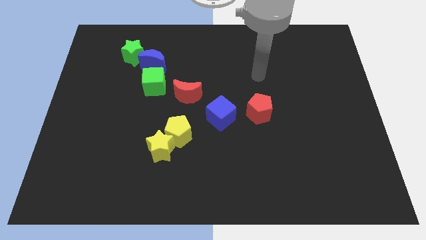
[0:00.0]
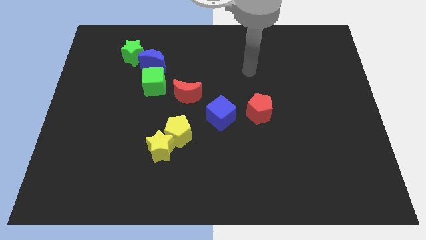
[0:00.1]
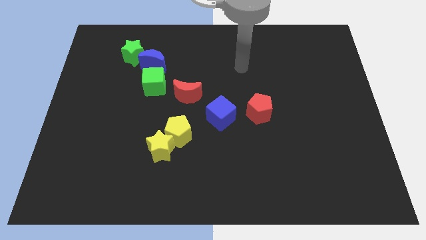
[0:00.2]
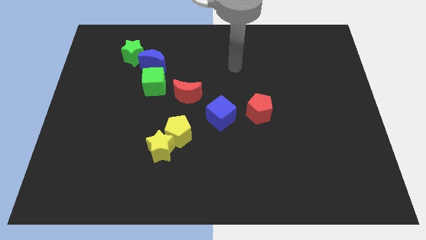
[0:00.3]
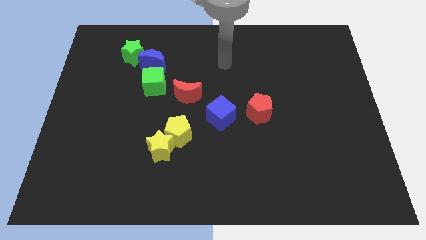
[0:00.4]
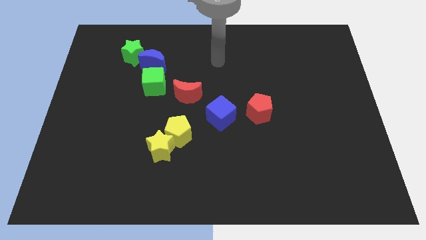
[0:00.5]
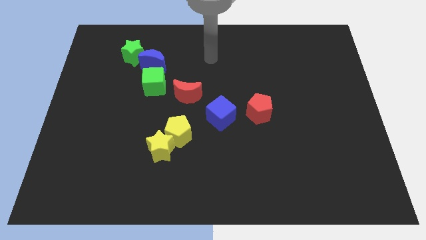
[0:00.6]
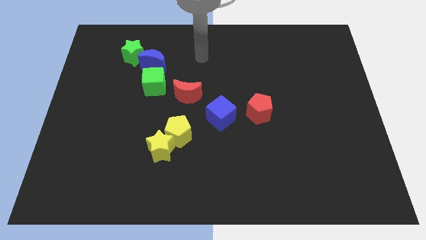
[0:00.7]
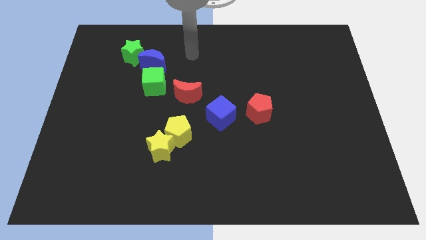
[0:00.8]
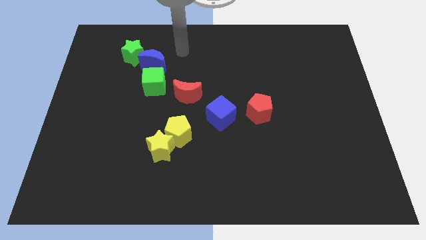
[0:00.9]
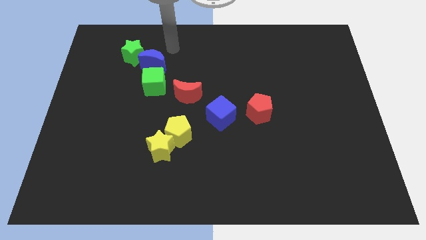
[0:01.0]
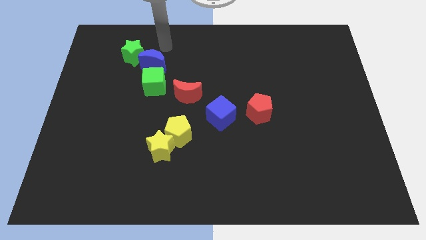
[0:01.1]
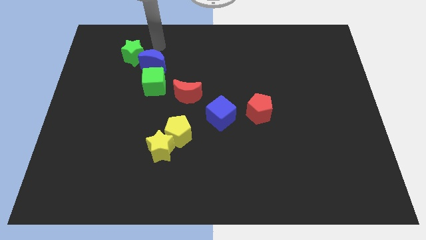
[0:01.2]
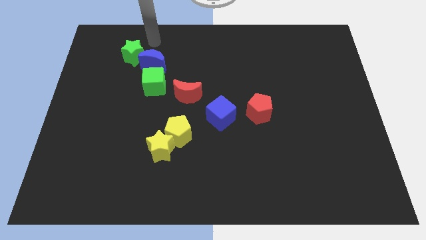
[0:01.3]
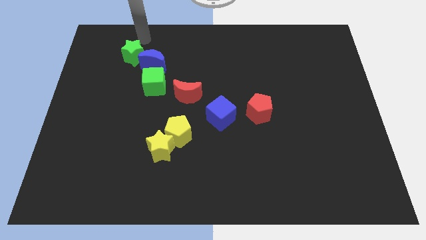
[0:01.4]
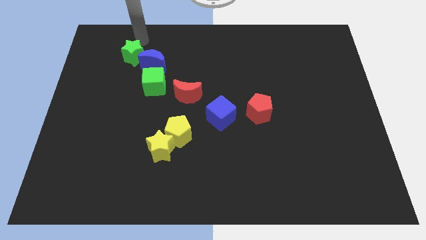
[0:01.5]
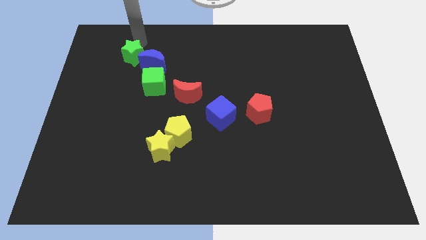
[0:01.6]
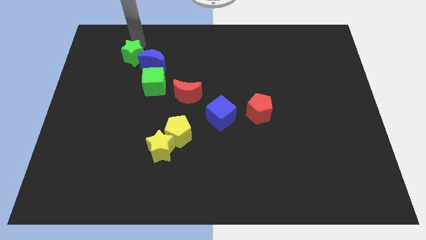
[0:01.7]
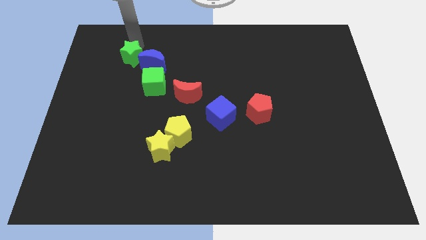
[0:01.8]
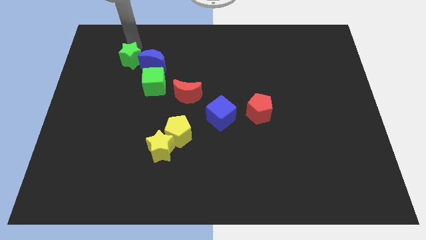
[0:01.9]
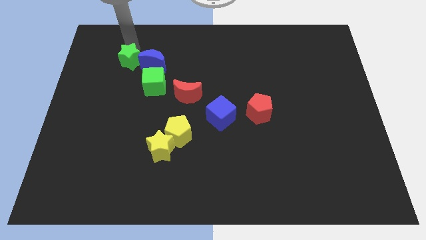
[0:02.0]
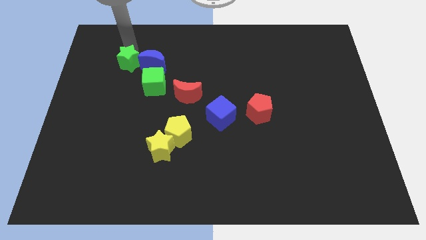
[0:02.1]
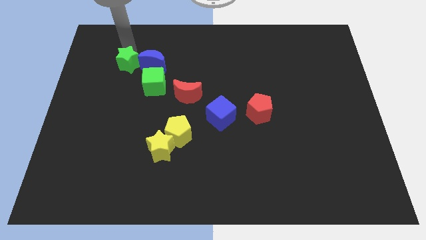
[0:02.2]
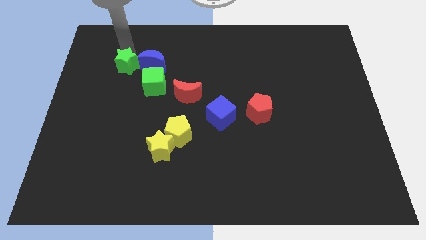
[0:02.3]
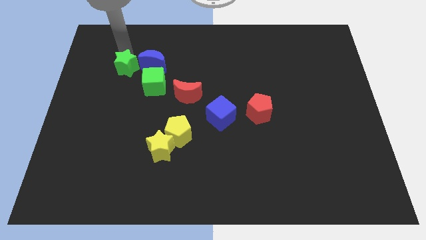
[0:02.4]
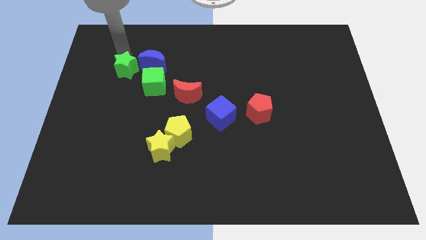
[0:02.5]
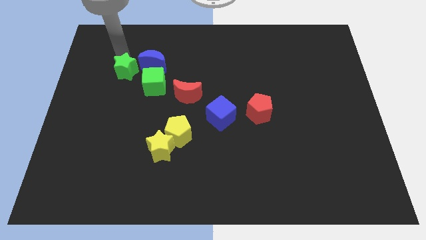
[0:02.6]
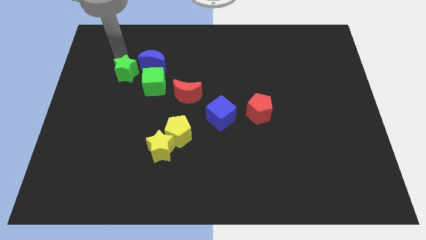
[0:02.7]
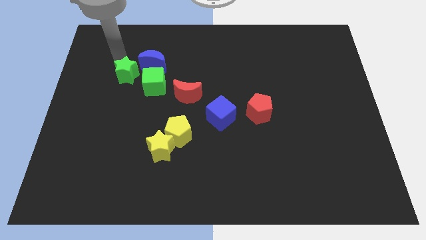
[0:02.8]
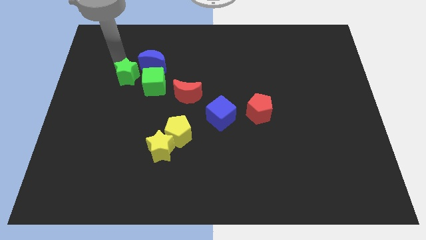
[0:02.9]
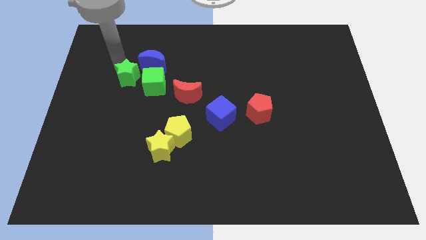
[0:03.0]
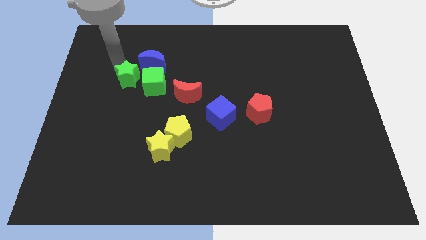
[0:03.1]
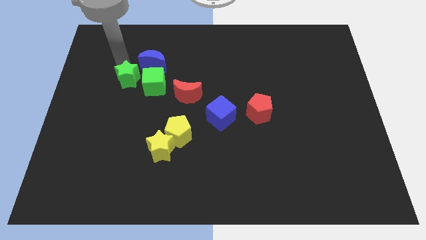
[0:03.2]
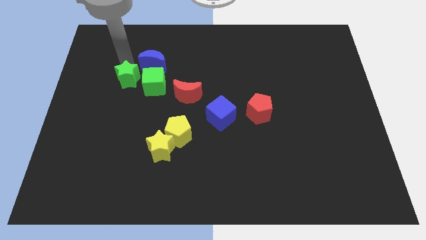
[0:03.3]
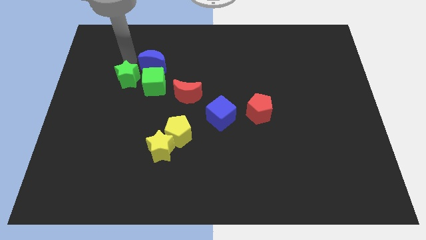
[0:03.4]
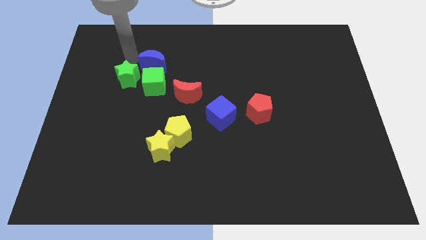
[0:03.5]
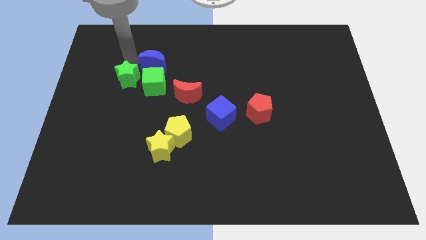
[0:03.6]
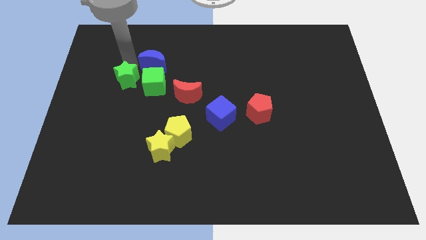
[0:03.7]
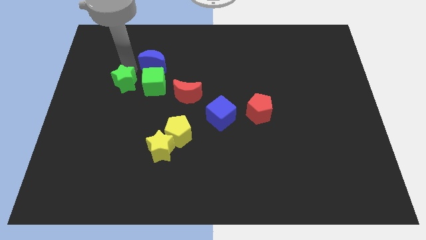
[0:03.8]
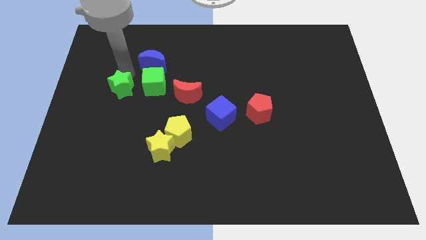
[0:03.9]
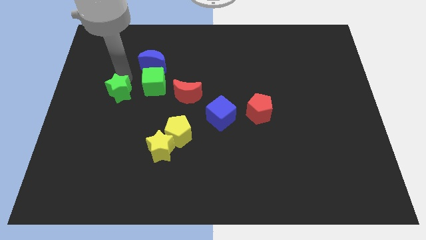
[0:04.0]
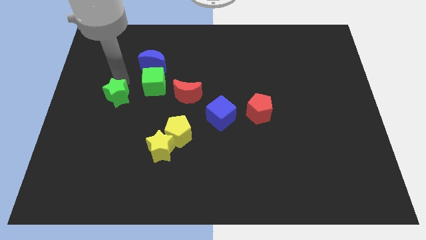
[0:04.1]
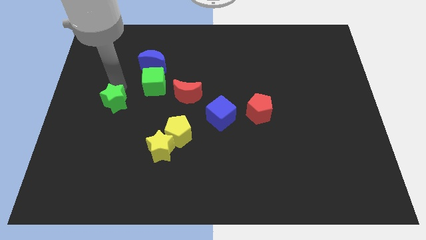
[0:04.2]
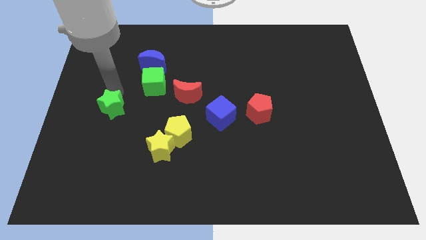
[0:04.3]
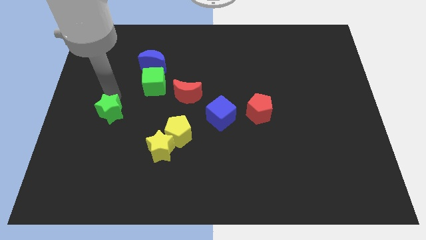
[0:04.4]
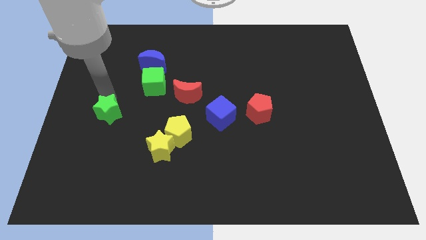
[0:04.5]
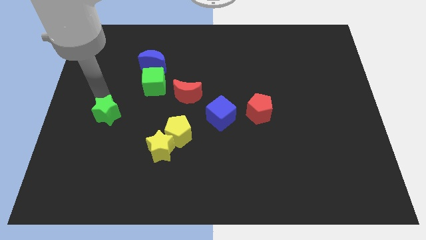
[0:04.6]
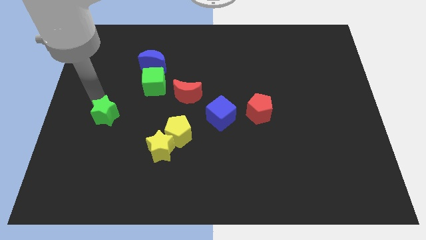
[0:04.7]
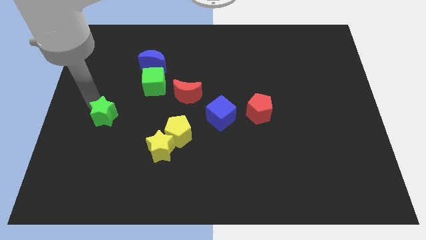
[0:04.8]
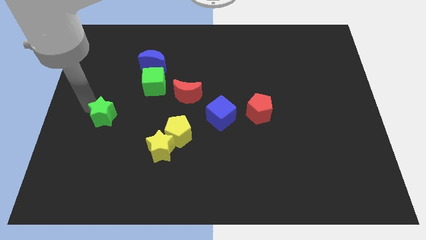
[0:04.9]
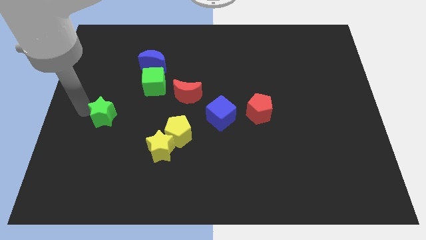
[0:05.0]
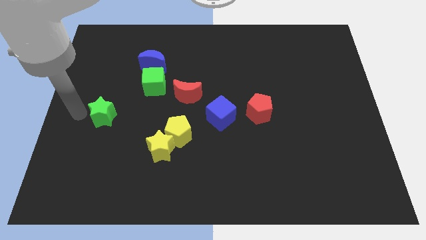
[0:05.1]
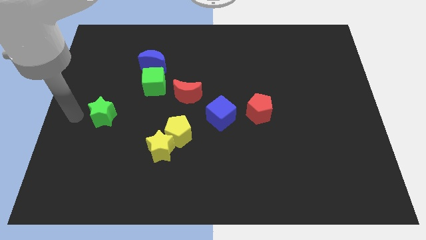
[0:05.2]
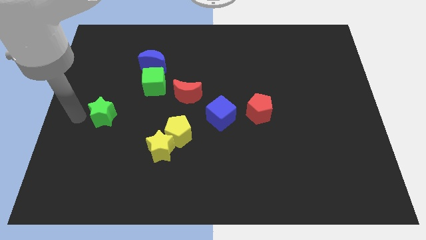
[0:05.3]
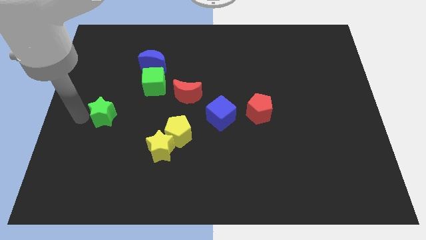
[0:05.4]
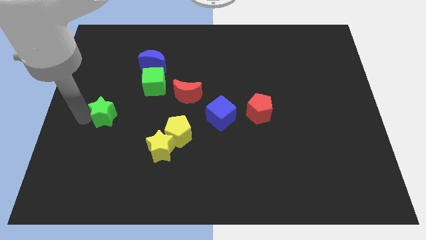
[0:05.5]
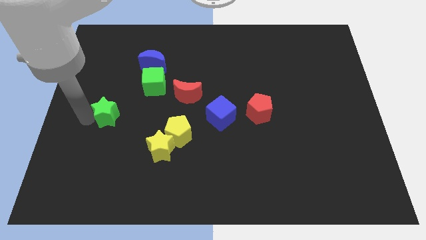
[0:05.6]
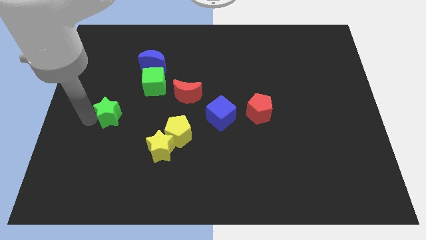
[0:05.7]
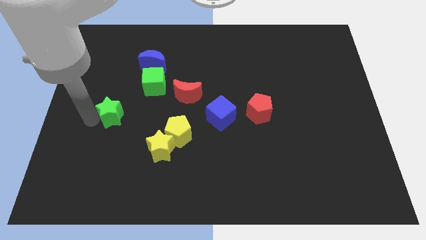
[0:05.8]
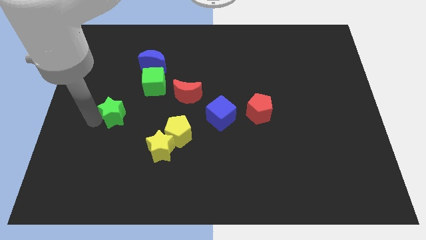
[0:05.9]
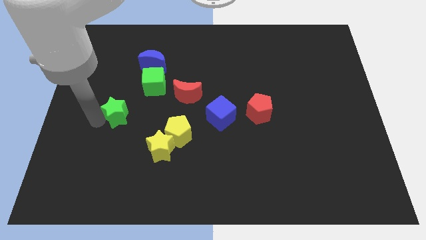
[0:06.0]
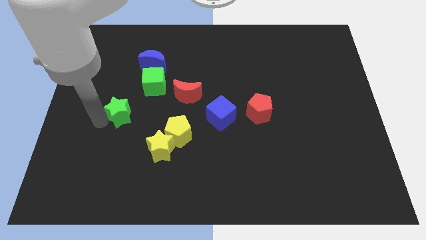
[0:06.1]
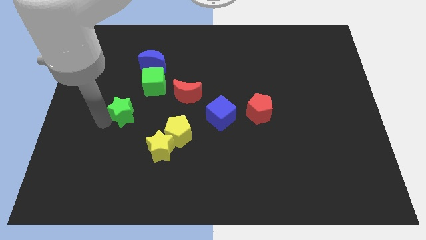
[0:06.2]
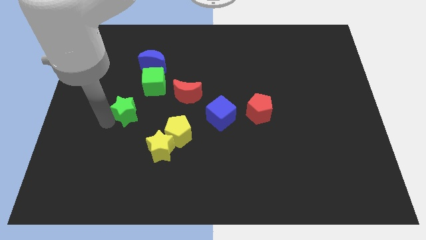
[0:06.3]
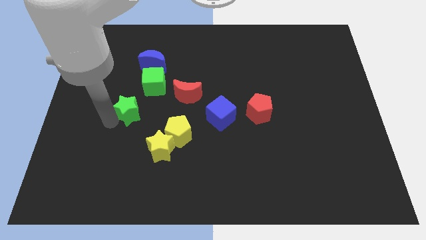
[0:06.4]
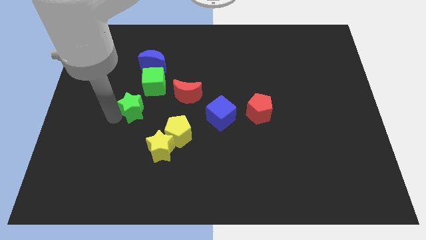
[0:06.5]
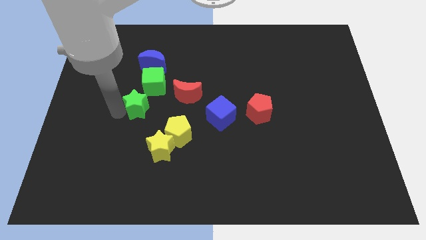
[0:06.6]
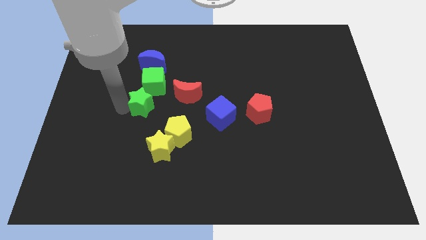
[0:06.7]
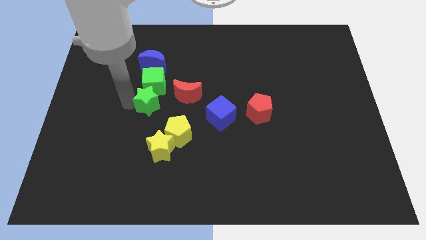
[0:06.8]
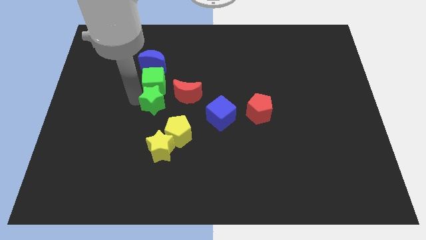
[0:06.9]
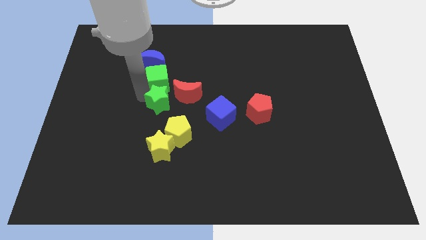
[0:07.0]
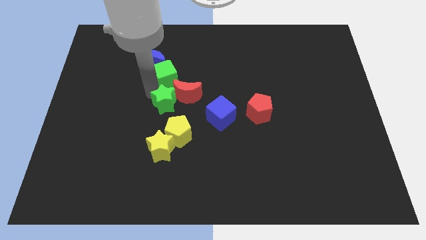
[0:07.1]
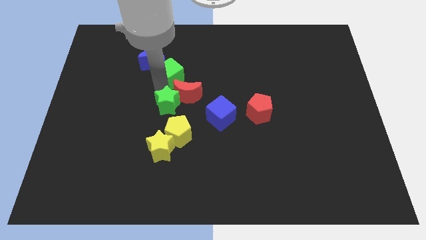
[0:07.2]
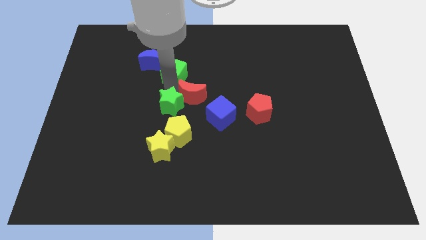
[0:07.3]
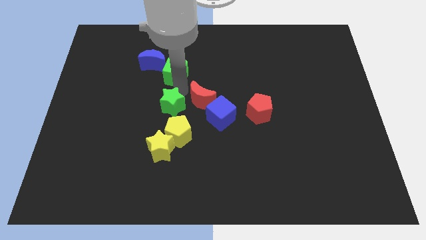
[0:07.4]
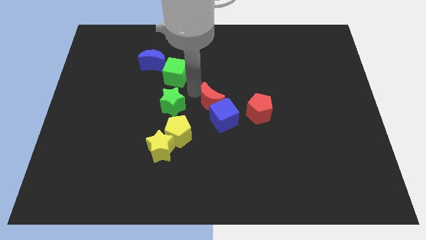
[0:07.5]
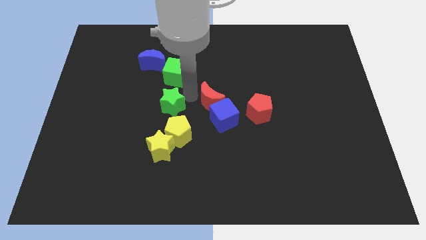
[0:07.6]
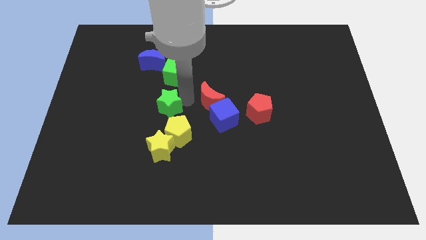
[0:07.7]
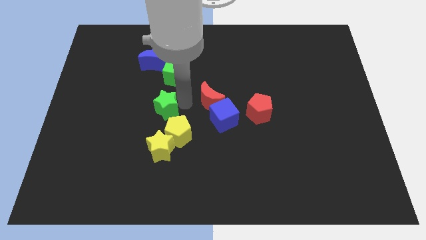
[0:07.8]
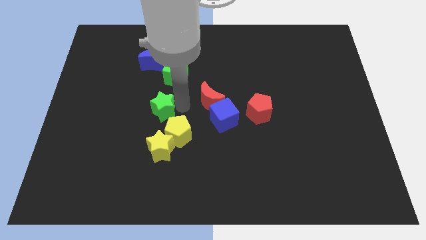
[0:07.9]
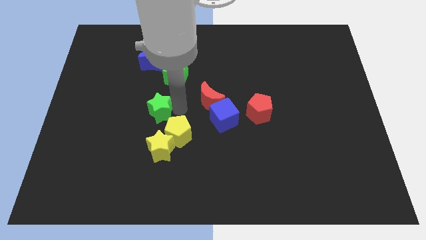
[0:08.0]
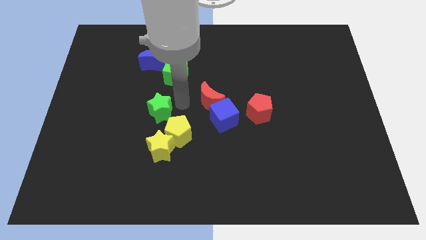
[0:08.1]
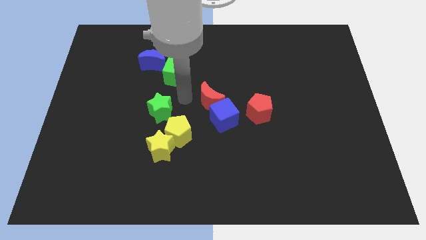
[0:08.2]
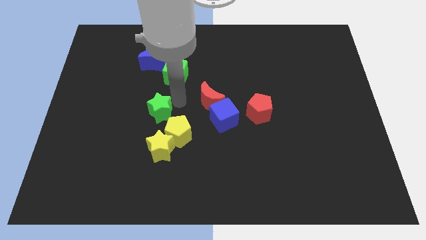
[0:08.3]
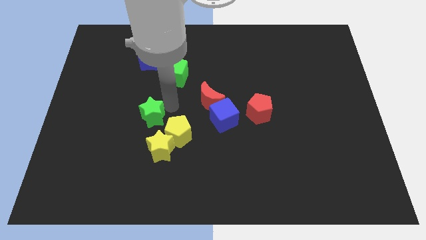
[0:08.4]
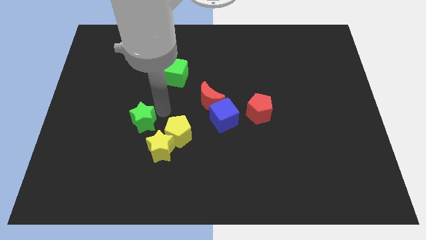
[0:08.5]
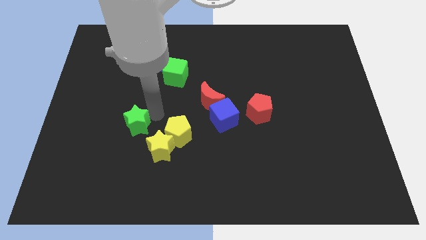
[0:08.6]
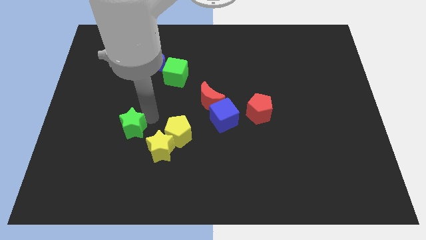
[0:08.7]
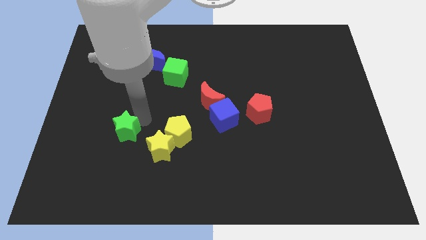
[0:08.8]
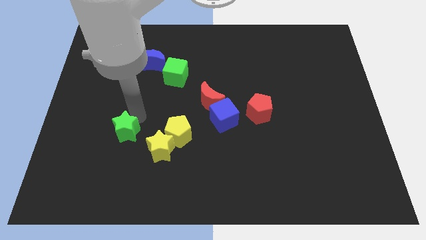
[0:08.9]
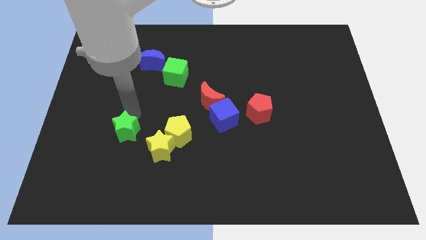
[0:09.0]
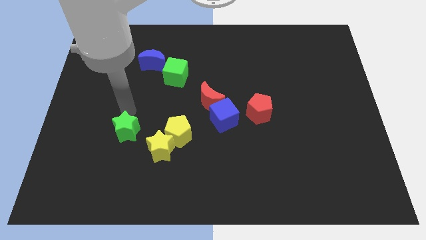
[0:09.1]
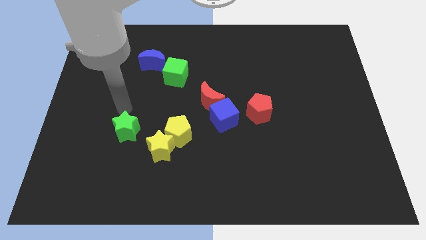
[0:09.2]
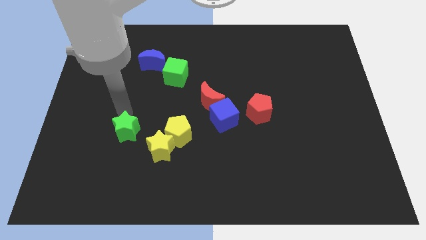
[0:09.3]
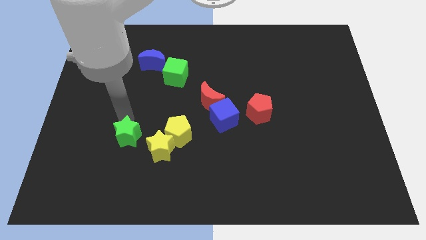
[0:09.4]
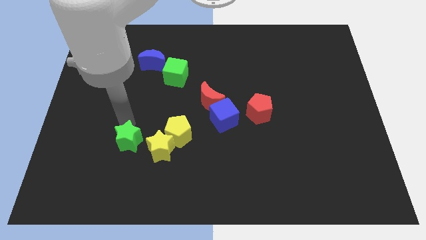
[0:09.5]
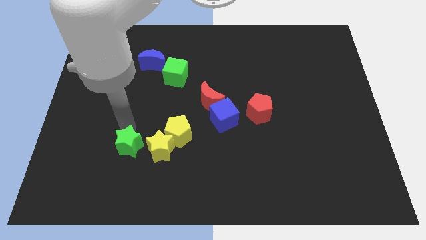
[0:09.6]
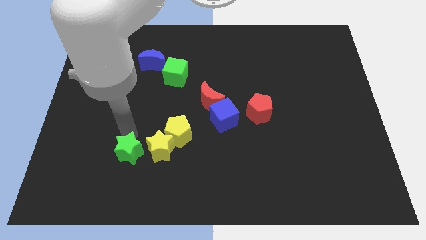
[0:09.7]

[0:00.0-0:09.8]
slide the green star to the bottom left side of the yellow star
